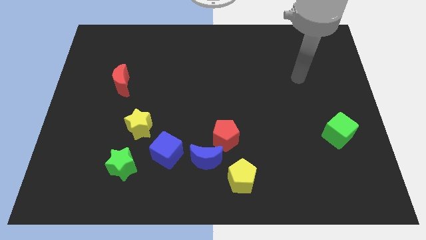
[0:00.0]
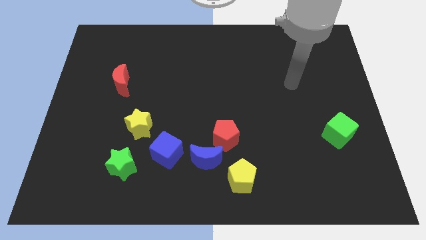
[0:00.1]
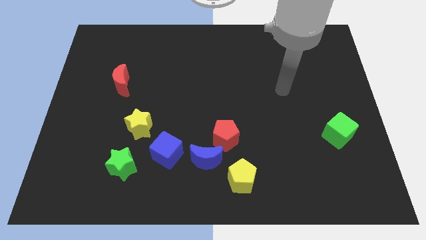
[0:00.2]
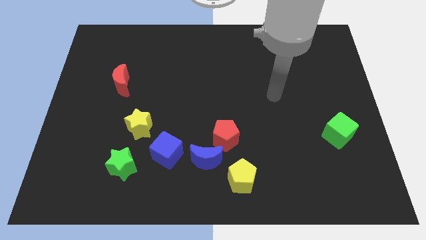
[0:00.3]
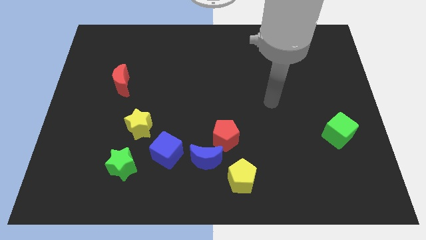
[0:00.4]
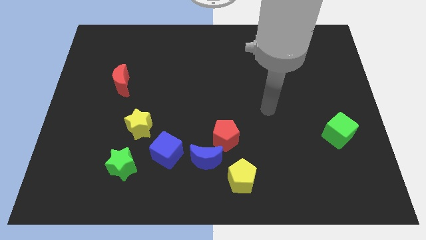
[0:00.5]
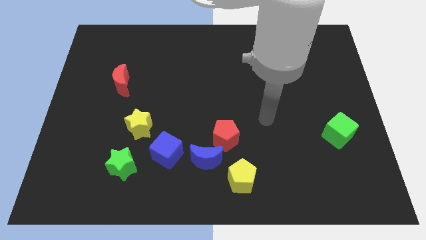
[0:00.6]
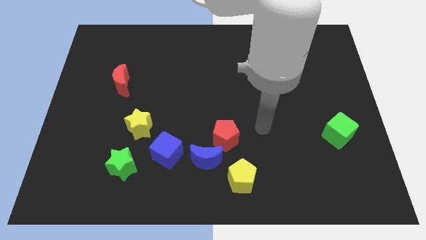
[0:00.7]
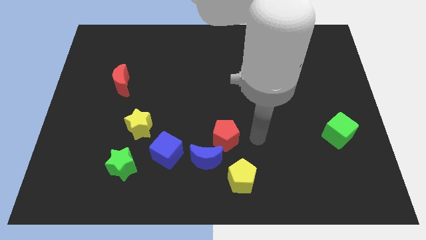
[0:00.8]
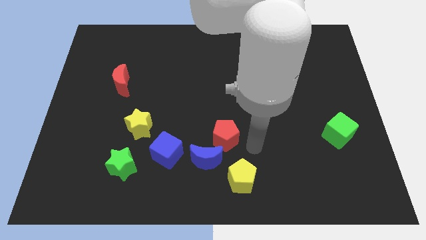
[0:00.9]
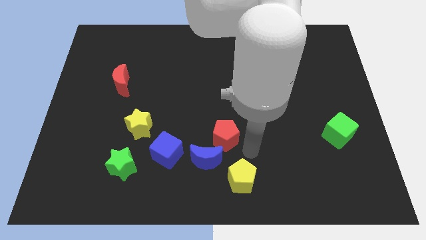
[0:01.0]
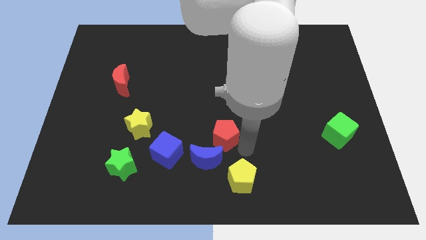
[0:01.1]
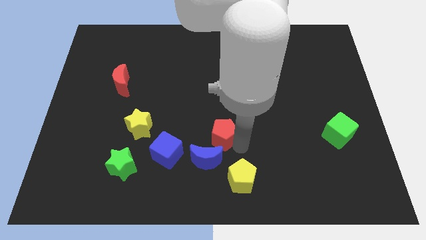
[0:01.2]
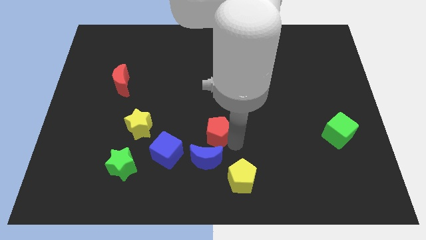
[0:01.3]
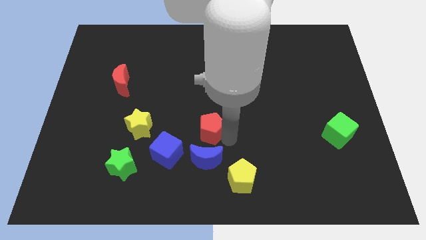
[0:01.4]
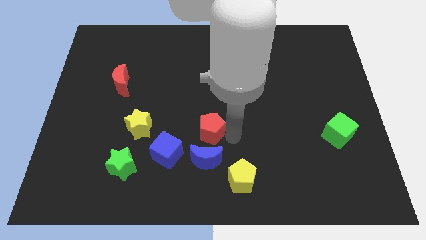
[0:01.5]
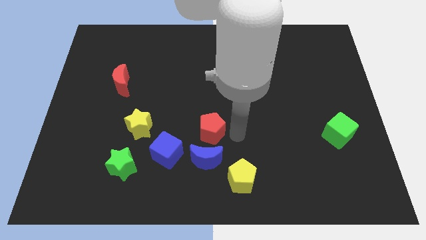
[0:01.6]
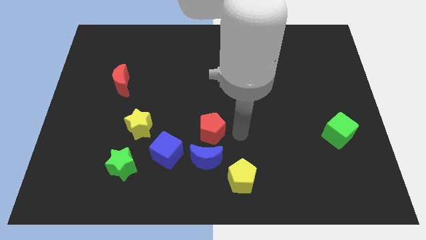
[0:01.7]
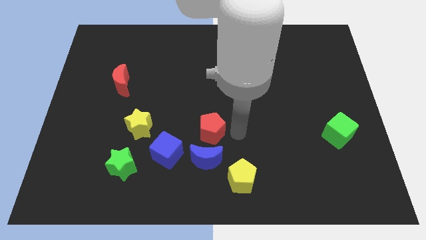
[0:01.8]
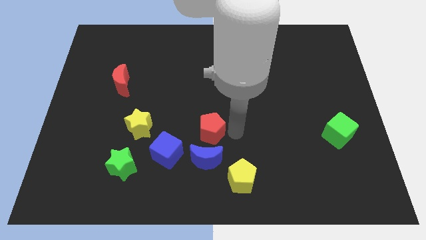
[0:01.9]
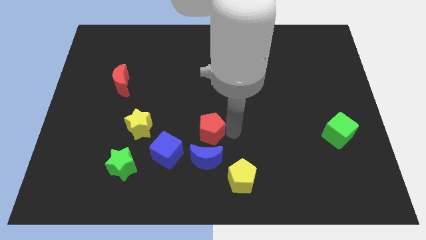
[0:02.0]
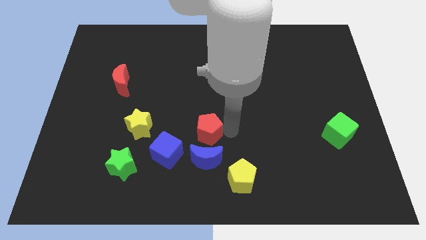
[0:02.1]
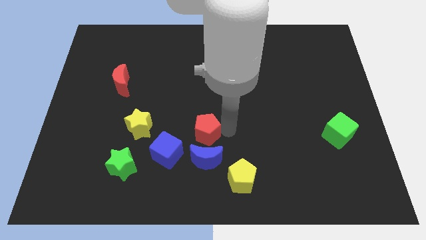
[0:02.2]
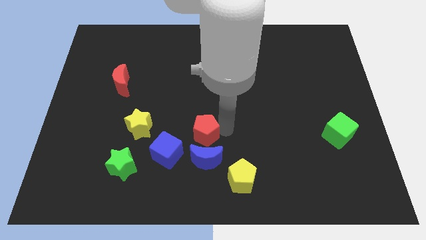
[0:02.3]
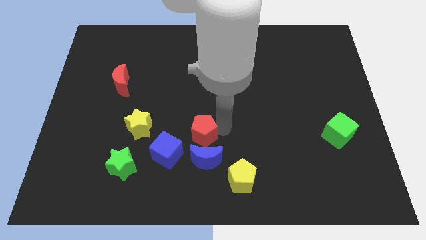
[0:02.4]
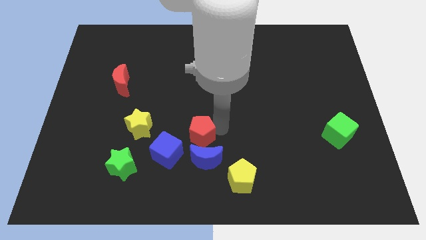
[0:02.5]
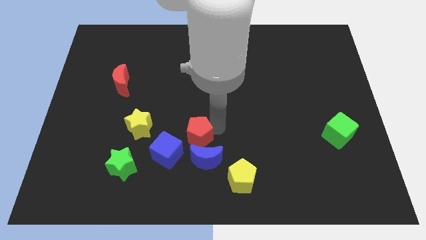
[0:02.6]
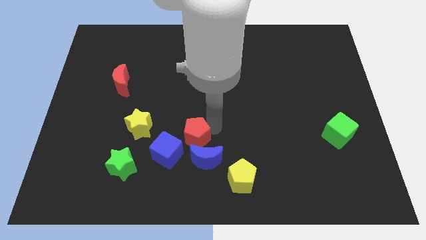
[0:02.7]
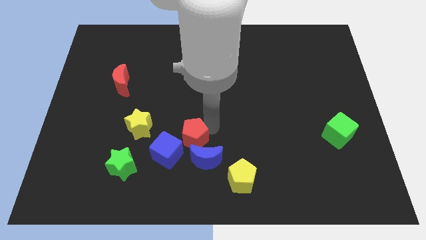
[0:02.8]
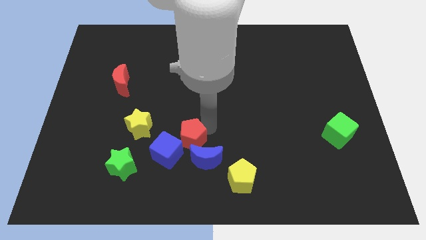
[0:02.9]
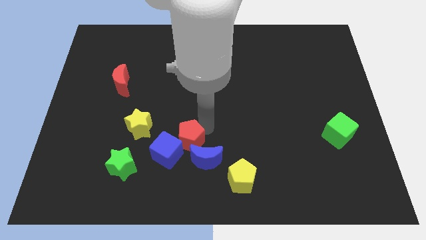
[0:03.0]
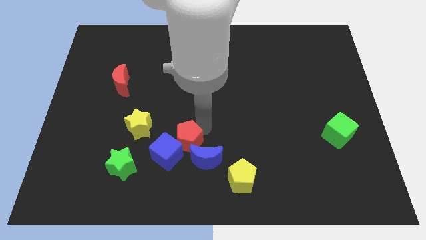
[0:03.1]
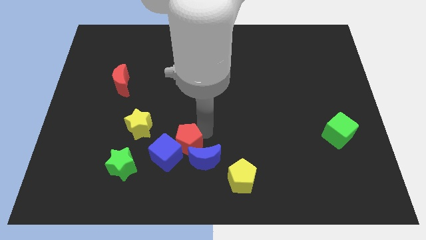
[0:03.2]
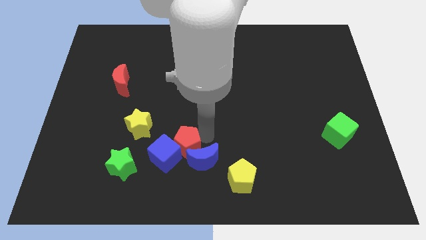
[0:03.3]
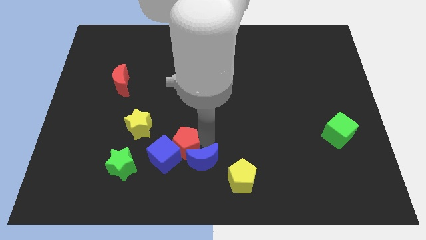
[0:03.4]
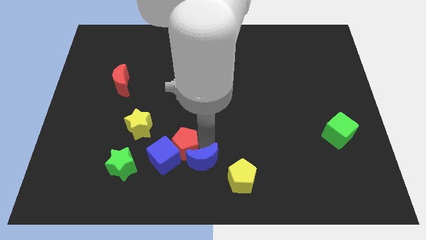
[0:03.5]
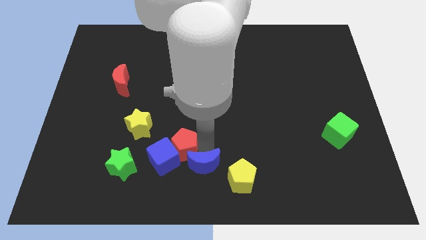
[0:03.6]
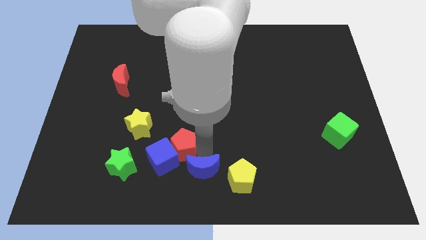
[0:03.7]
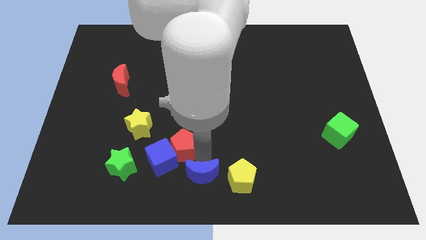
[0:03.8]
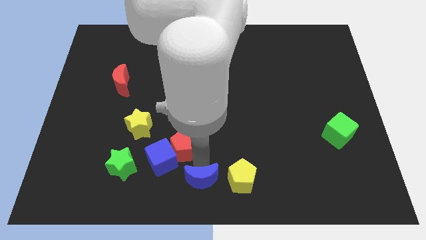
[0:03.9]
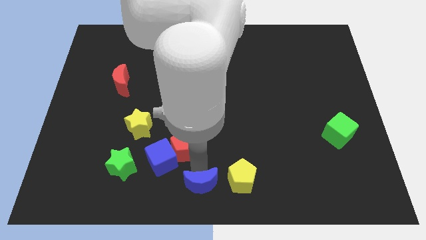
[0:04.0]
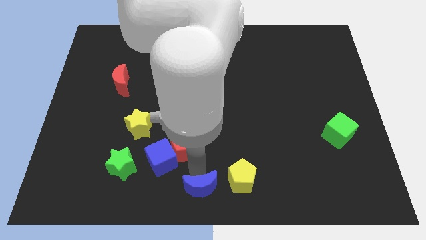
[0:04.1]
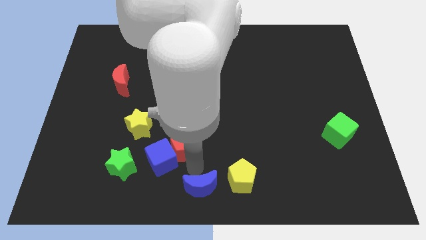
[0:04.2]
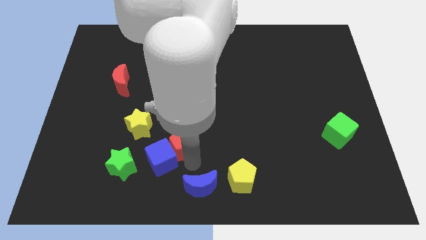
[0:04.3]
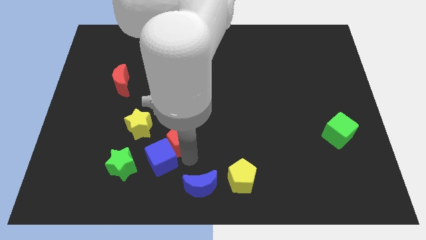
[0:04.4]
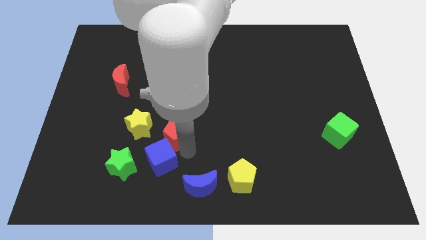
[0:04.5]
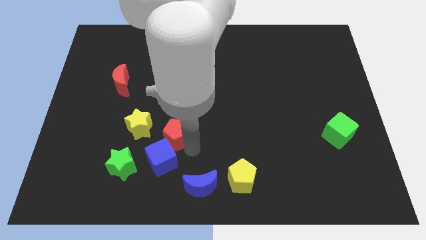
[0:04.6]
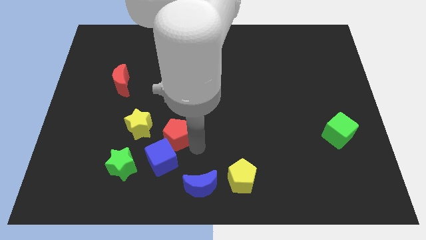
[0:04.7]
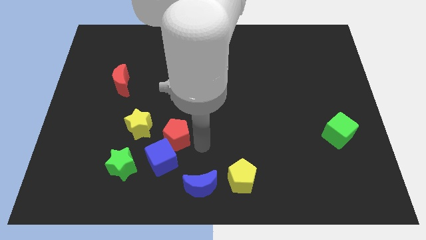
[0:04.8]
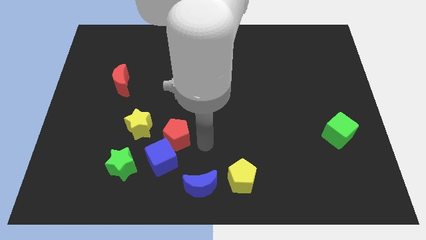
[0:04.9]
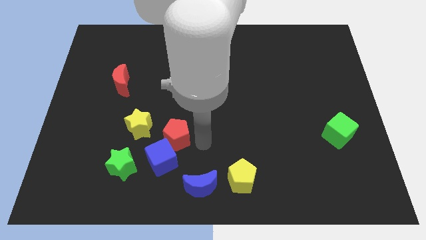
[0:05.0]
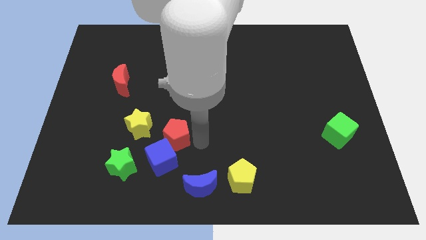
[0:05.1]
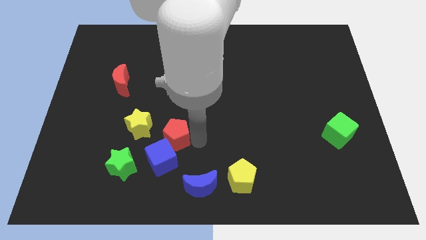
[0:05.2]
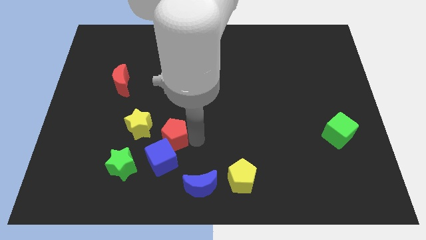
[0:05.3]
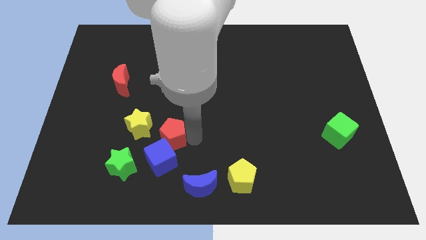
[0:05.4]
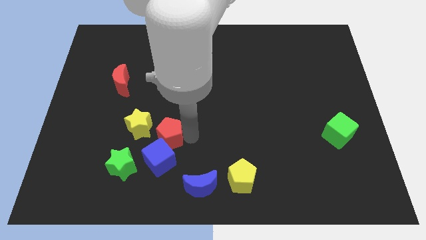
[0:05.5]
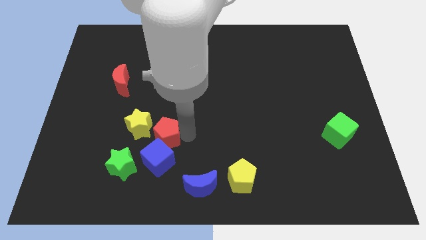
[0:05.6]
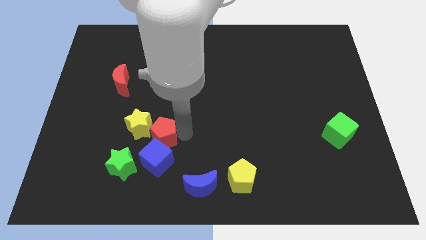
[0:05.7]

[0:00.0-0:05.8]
slide the red pentagon to the yellow star
